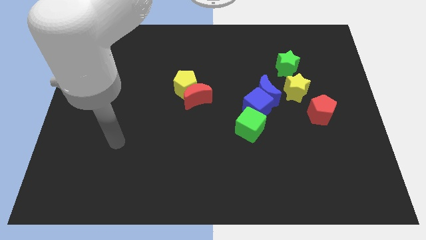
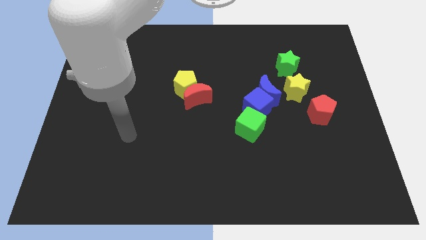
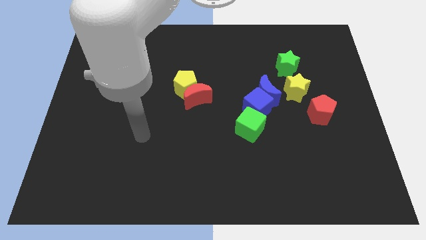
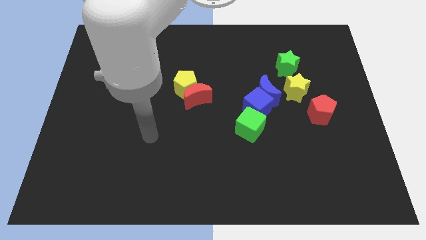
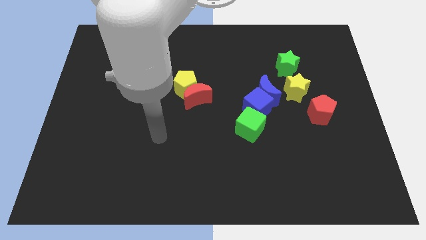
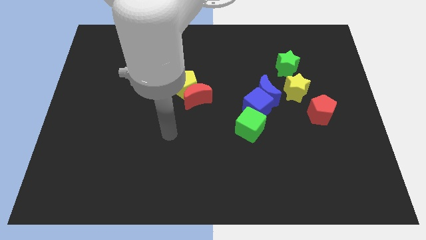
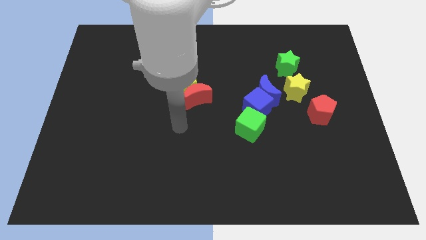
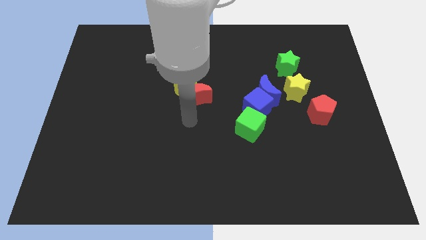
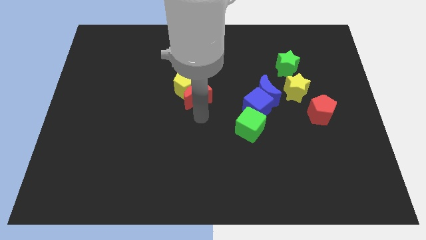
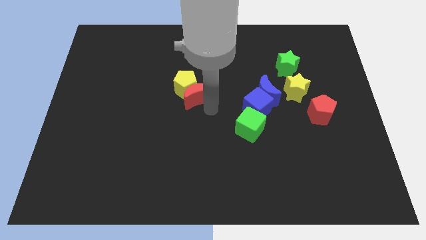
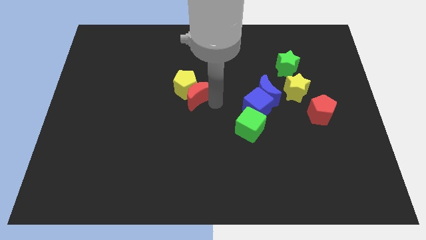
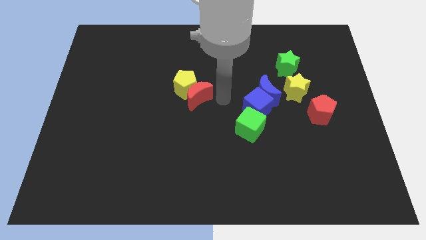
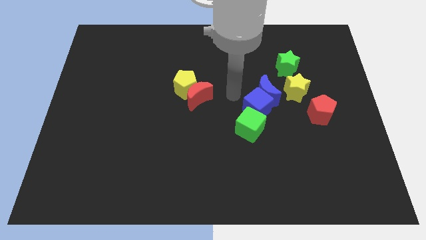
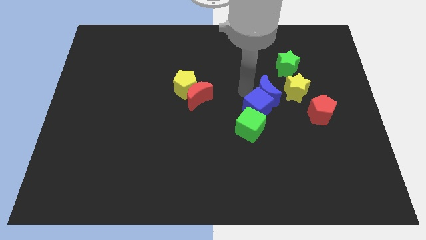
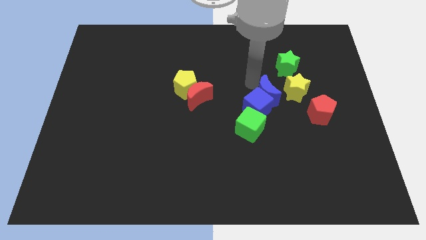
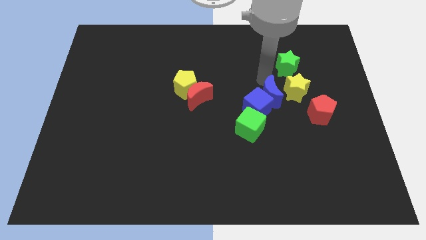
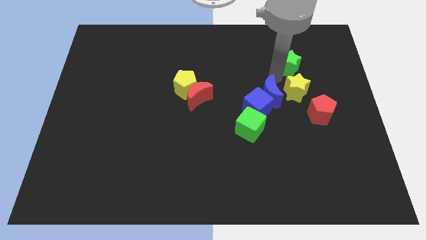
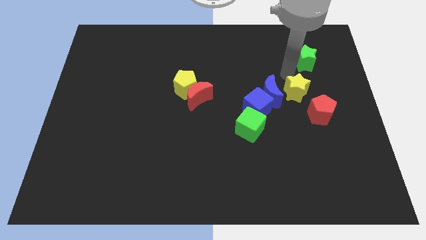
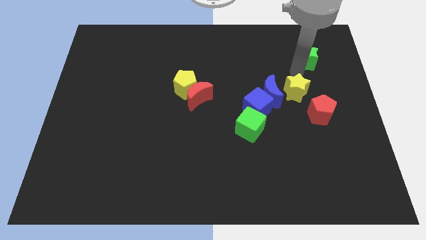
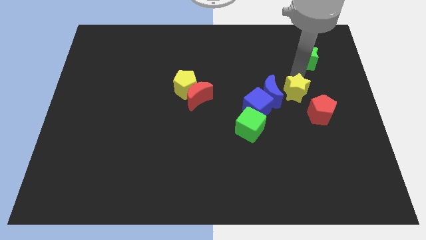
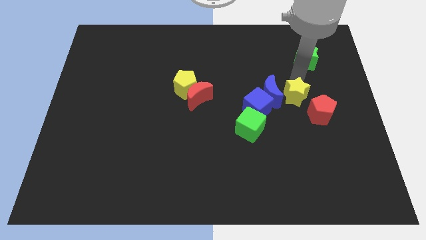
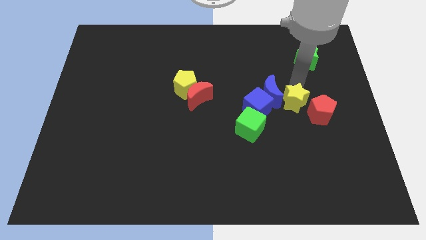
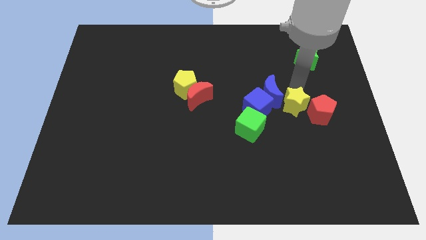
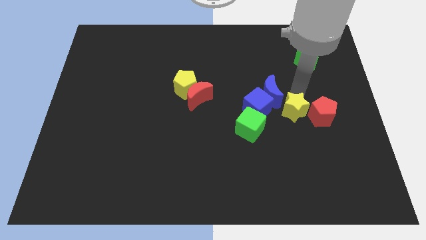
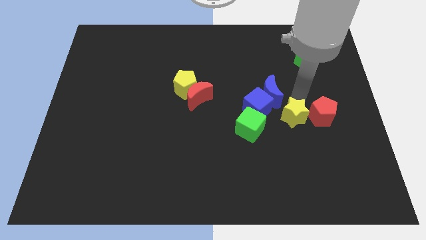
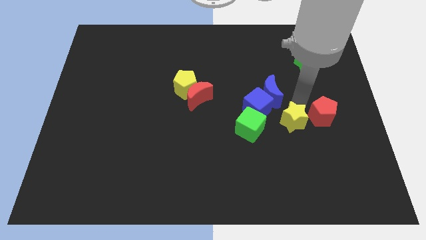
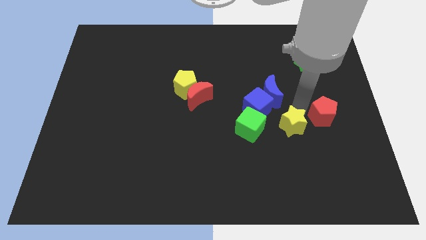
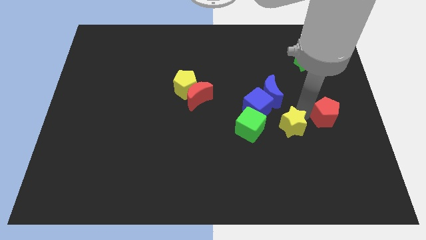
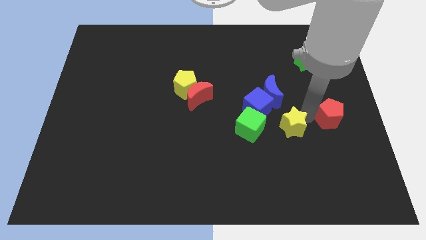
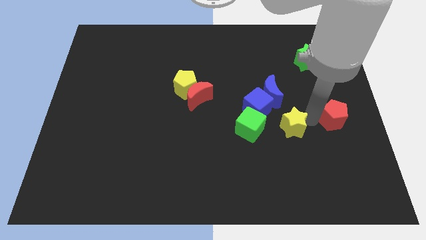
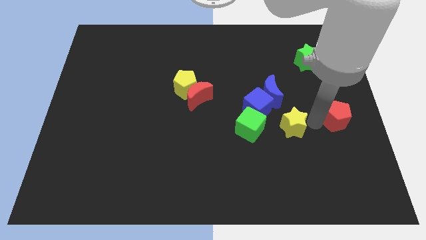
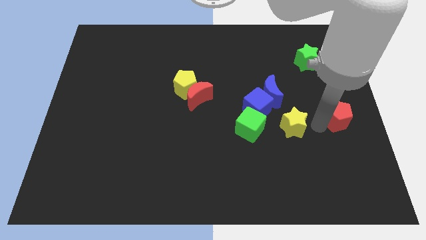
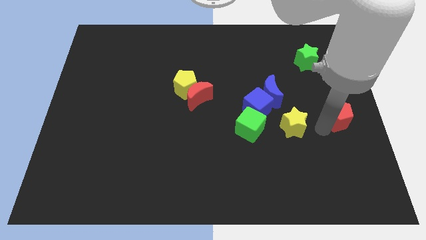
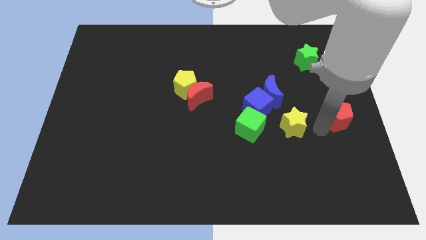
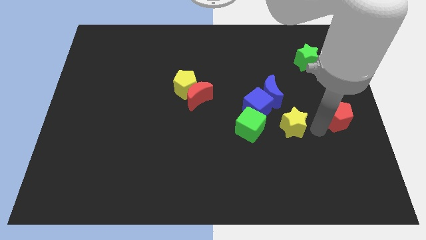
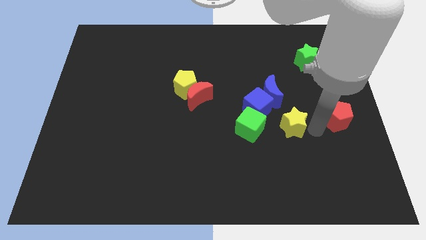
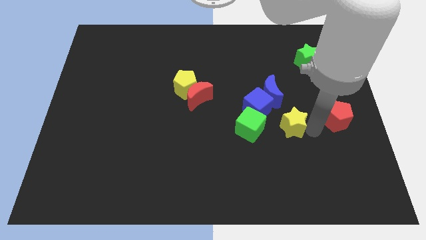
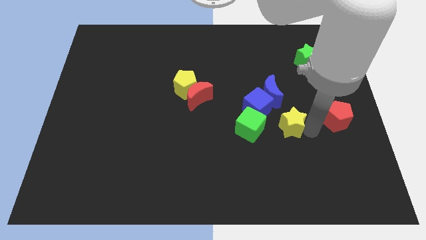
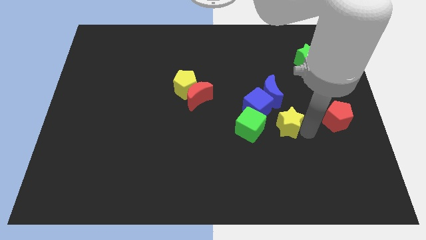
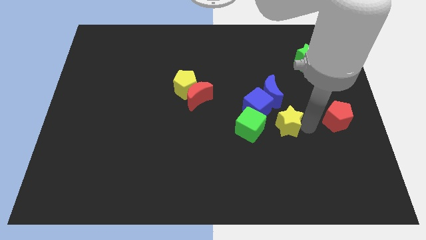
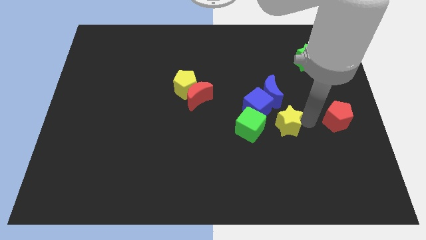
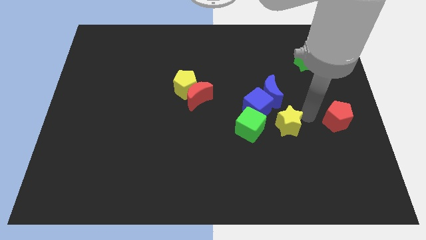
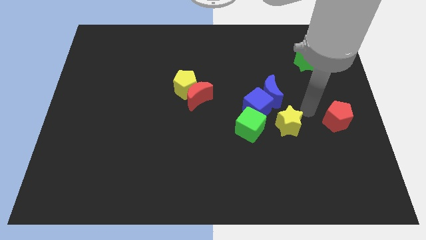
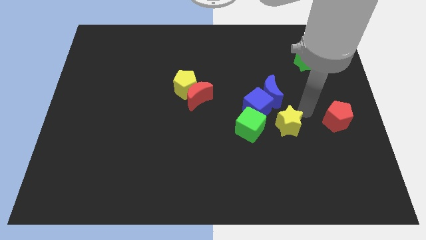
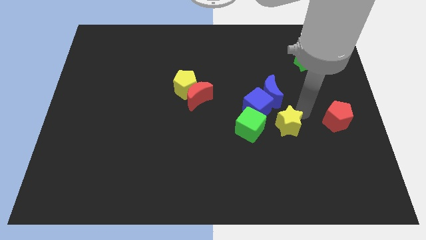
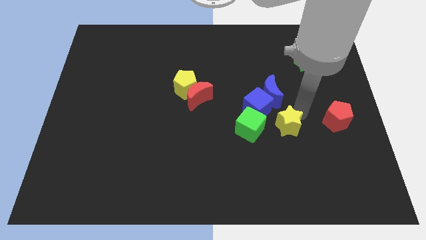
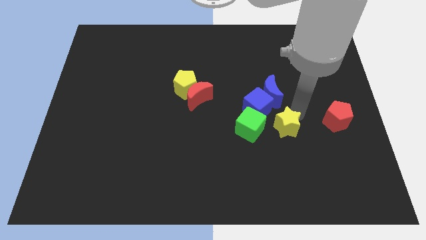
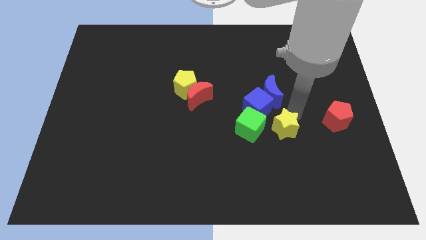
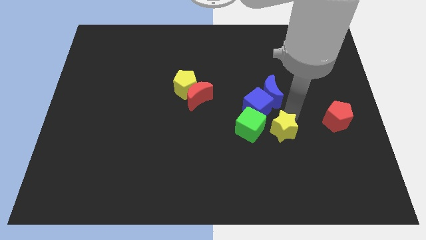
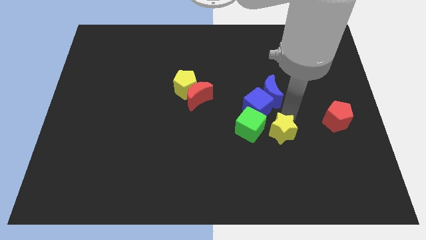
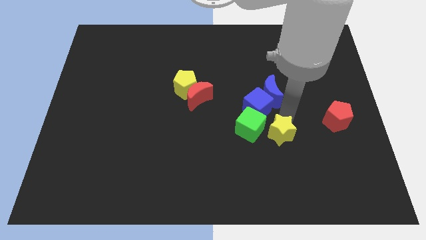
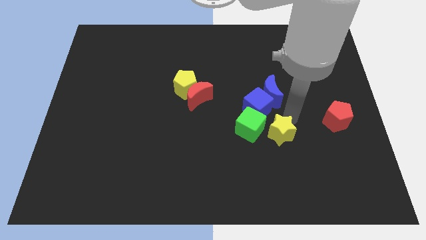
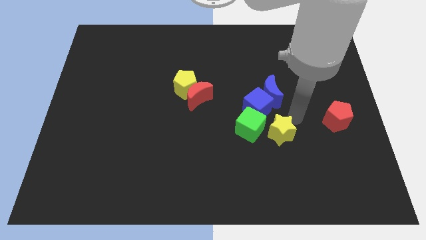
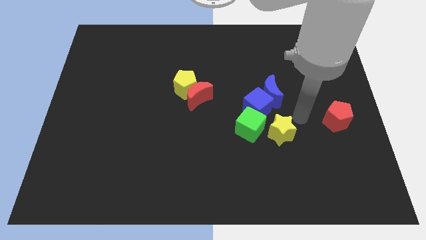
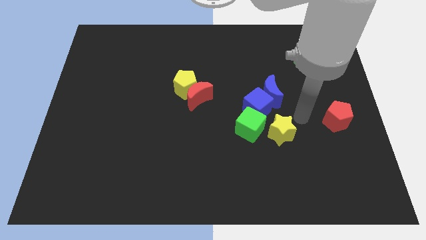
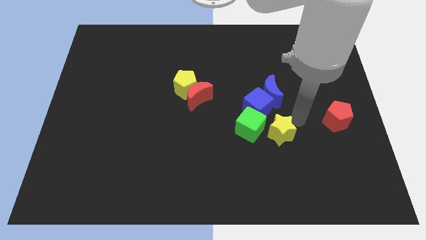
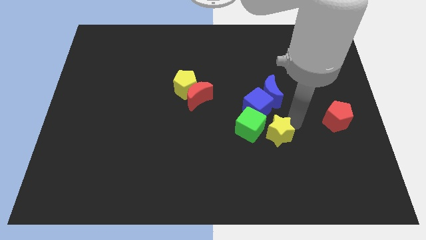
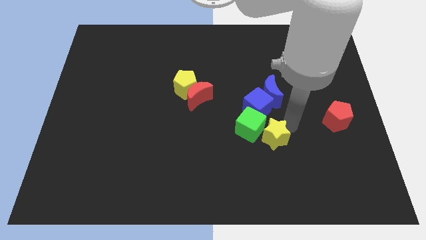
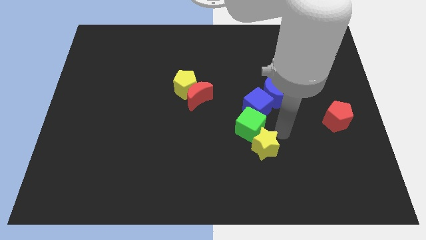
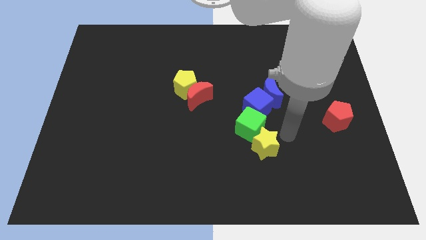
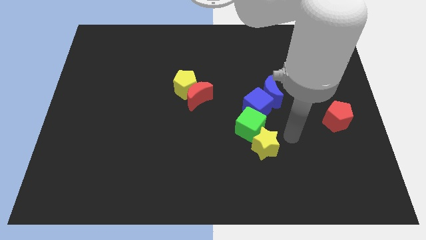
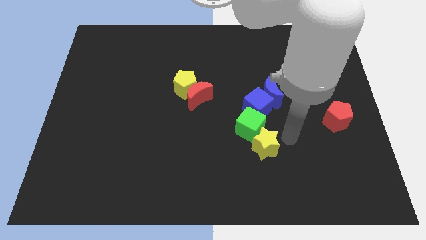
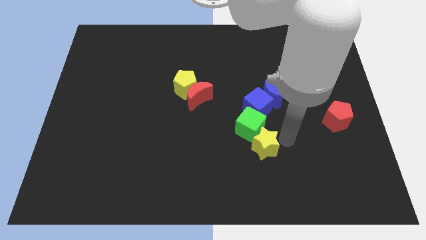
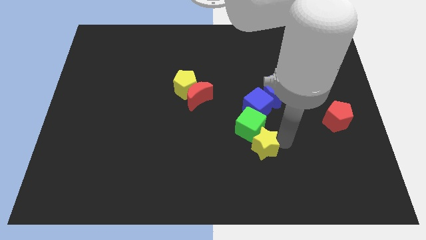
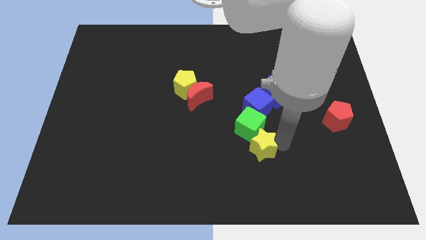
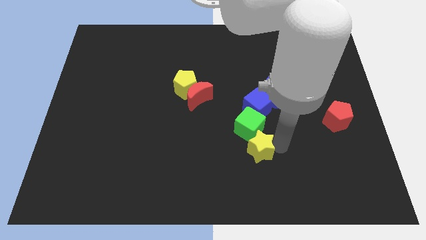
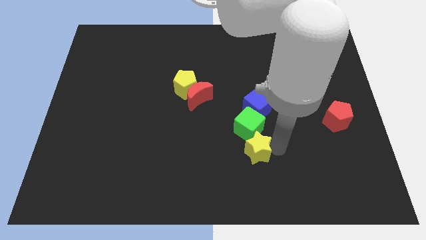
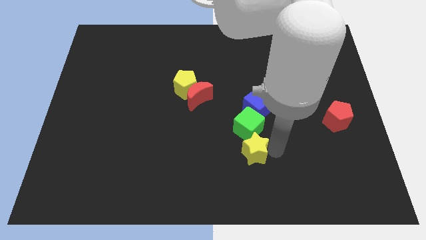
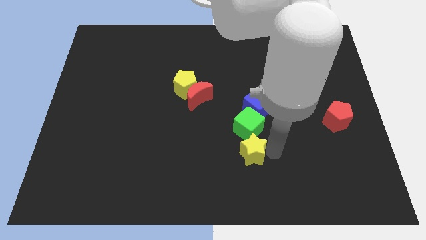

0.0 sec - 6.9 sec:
move the yellow star down and to the left

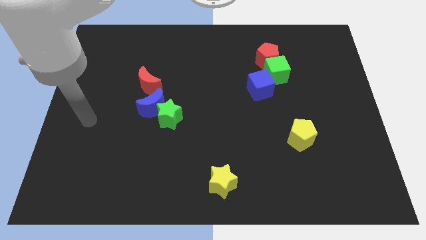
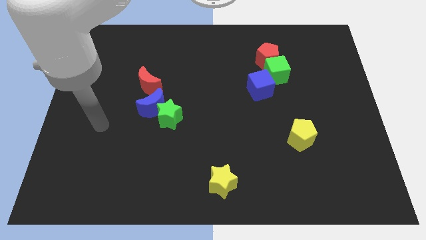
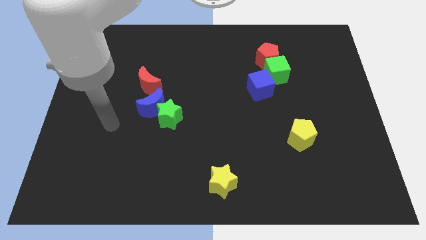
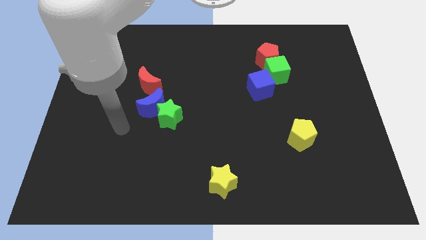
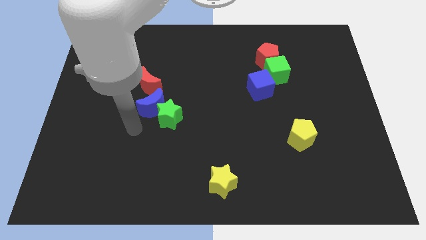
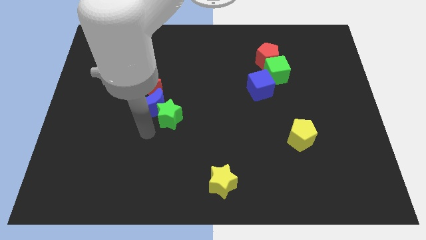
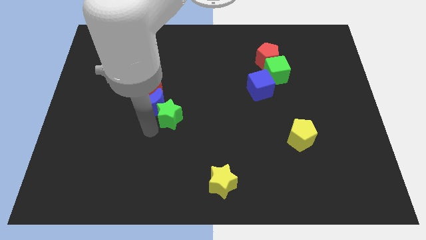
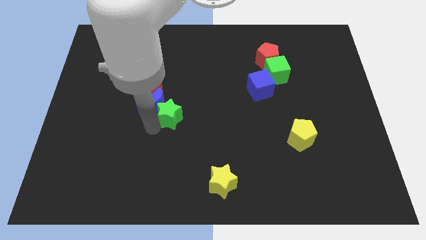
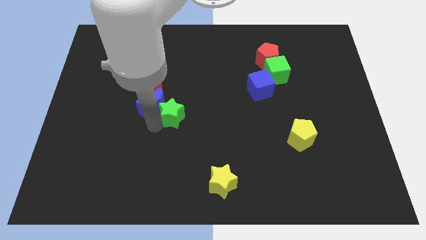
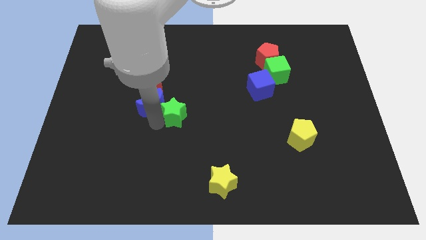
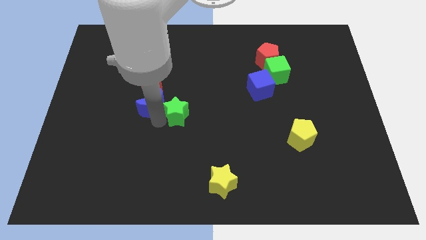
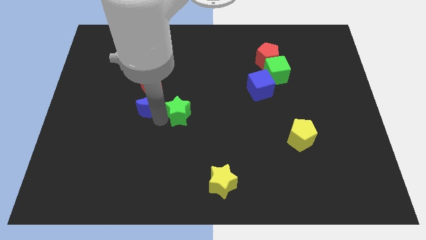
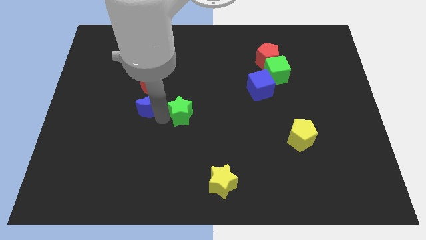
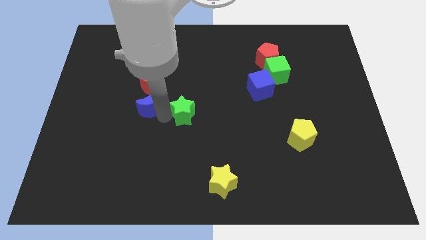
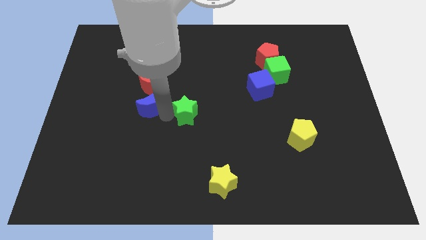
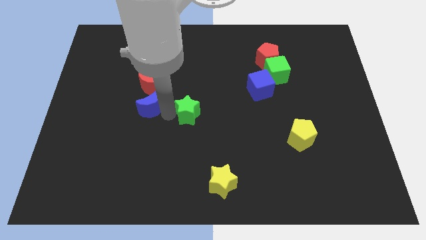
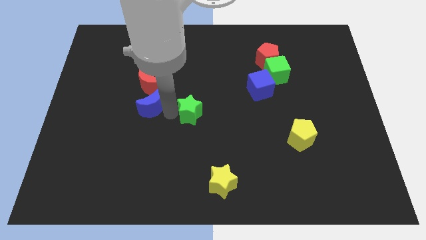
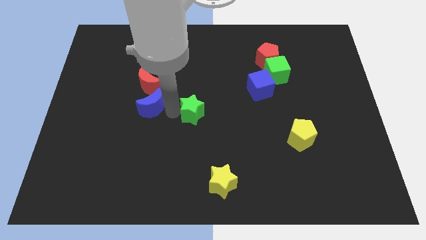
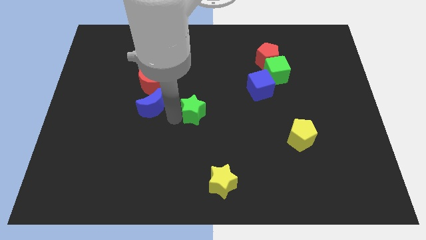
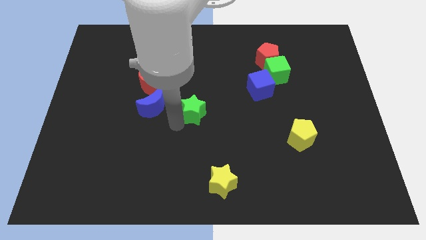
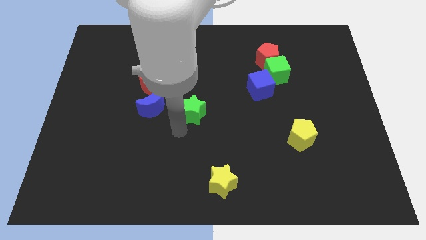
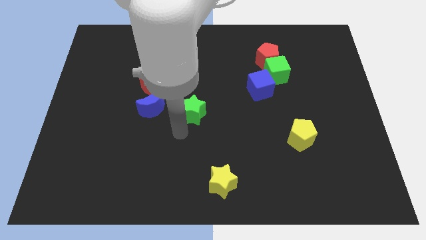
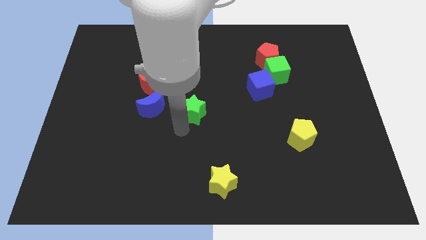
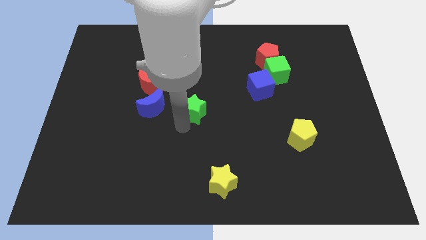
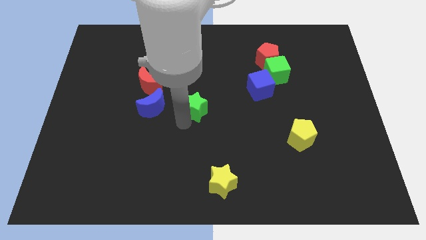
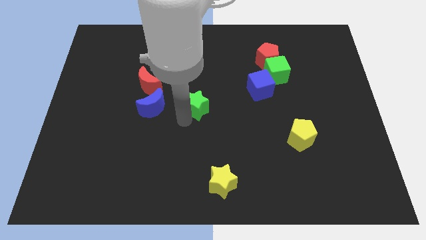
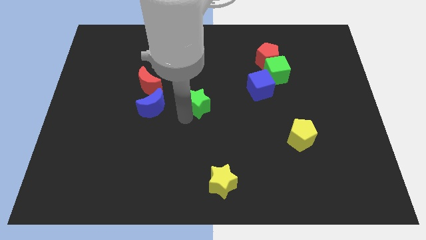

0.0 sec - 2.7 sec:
move the green star diagonally up and right a little
